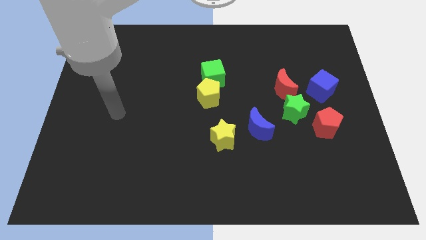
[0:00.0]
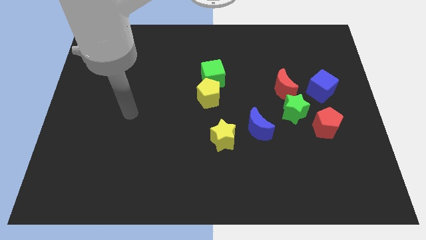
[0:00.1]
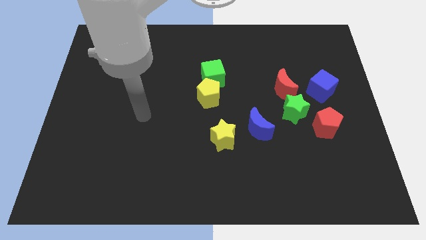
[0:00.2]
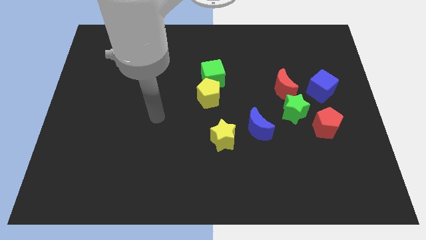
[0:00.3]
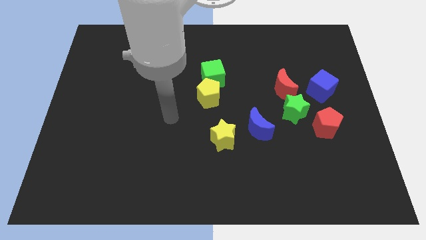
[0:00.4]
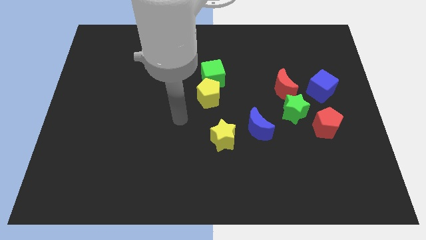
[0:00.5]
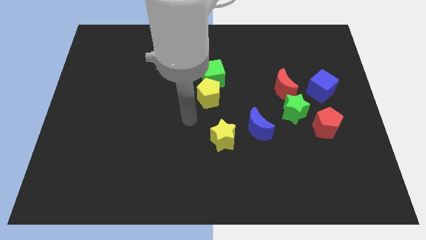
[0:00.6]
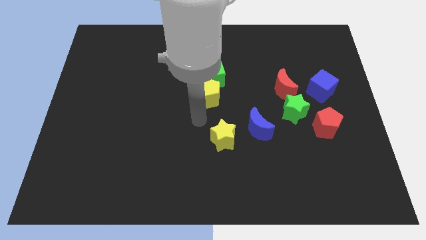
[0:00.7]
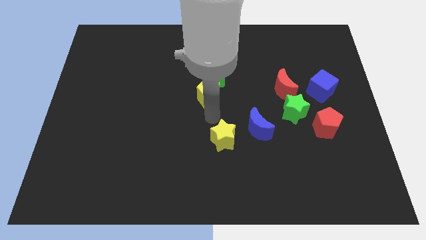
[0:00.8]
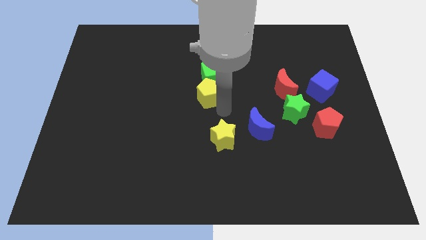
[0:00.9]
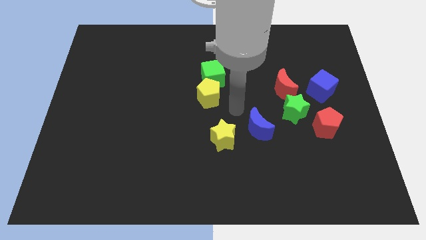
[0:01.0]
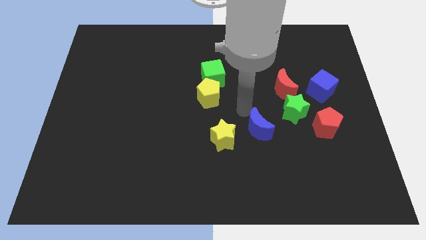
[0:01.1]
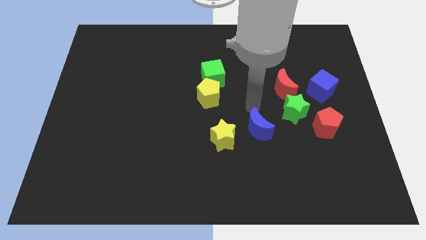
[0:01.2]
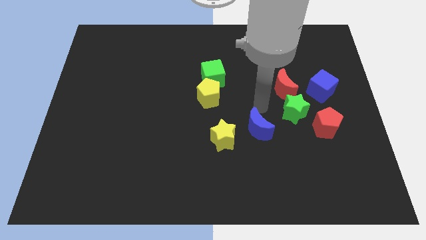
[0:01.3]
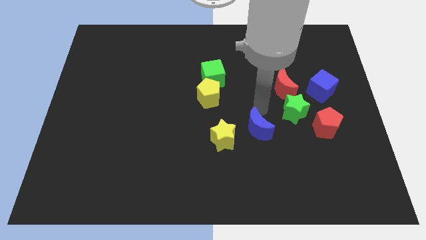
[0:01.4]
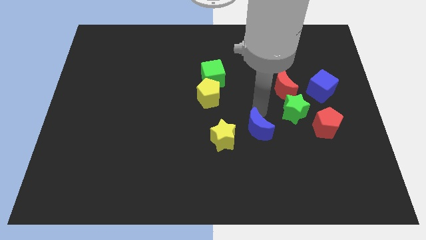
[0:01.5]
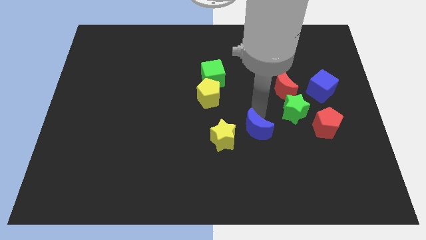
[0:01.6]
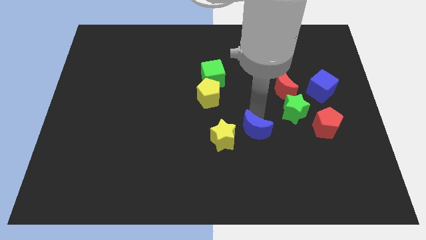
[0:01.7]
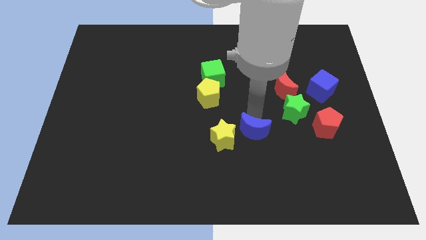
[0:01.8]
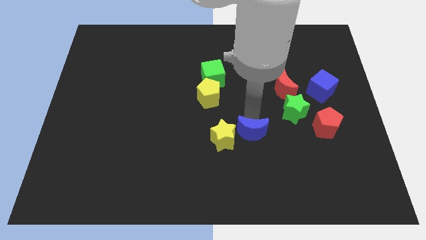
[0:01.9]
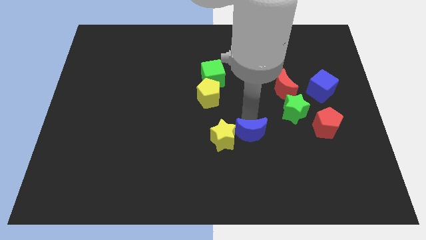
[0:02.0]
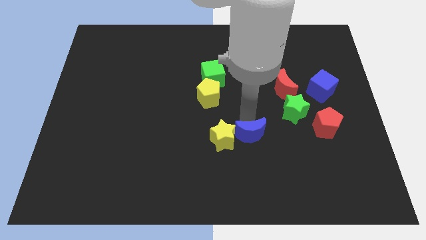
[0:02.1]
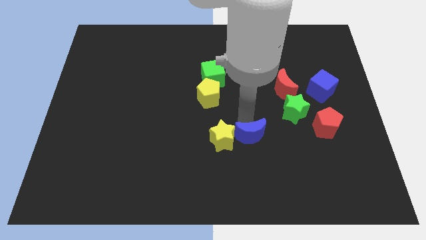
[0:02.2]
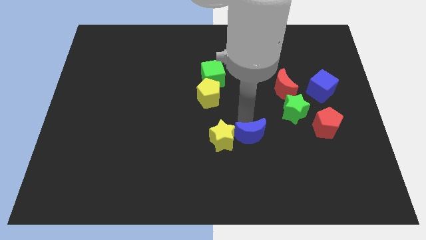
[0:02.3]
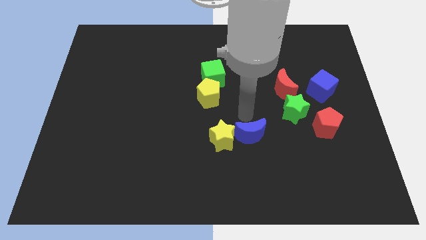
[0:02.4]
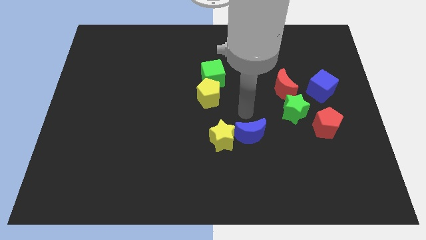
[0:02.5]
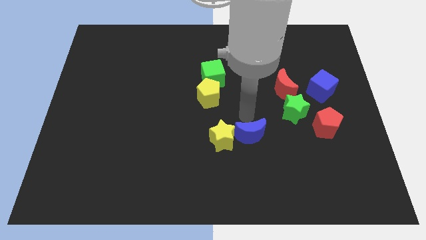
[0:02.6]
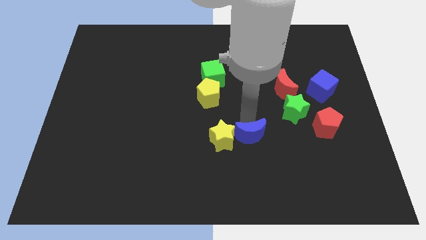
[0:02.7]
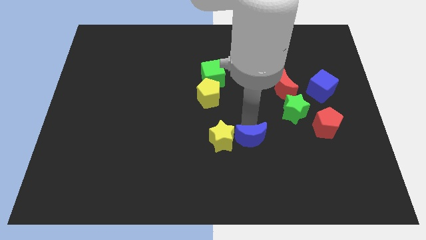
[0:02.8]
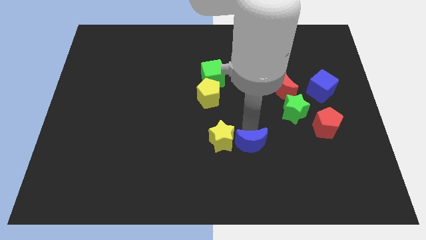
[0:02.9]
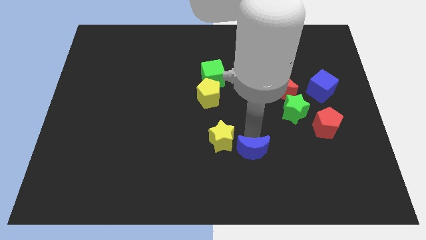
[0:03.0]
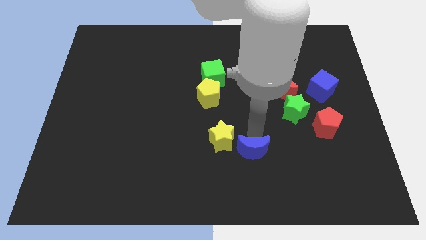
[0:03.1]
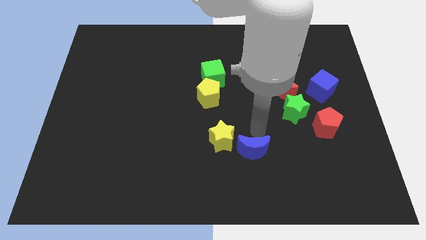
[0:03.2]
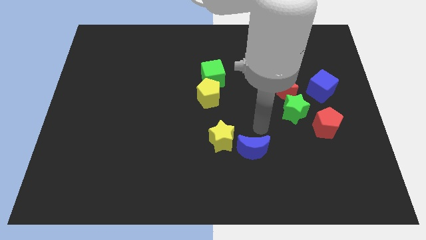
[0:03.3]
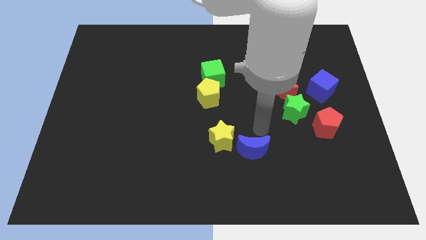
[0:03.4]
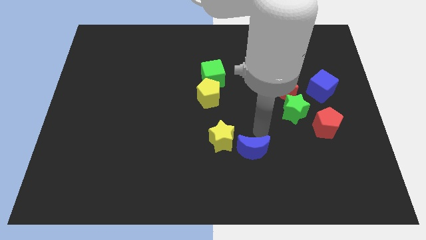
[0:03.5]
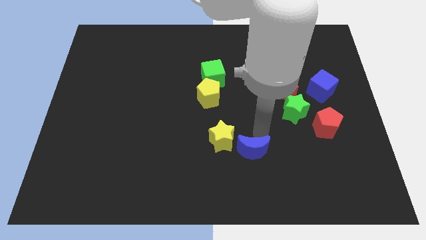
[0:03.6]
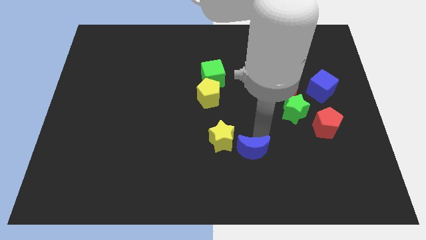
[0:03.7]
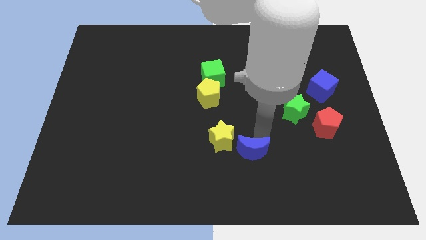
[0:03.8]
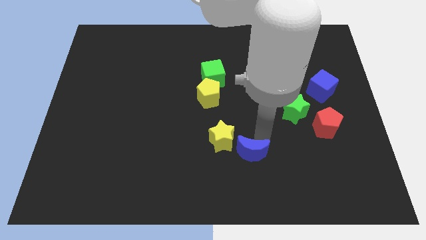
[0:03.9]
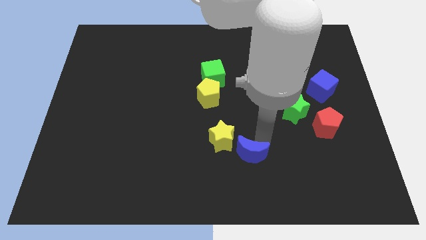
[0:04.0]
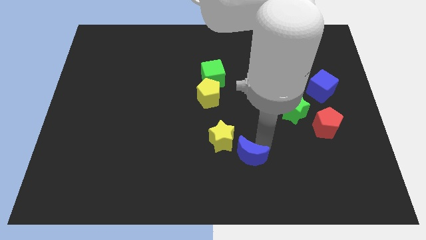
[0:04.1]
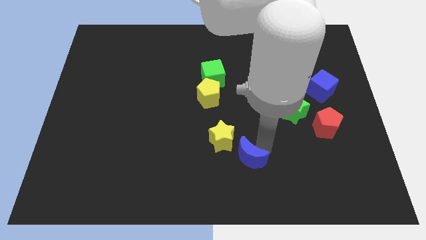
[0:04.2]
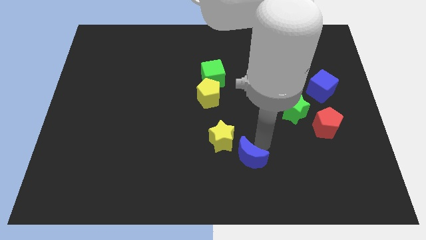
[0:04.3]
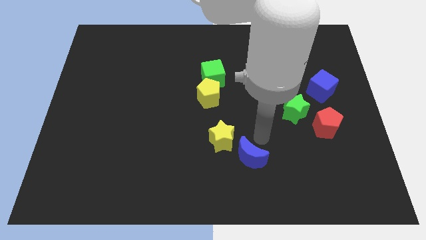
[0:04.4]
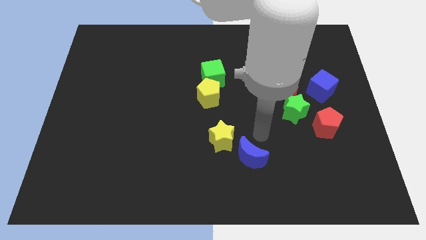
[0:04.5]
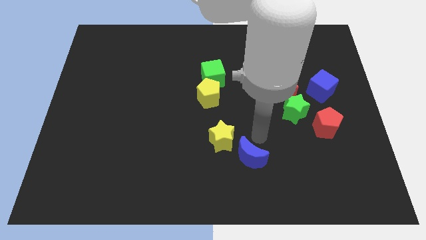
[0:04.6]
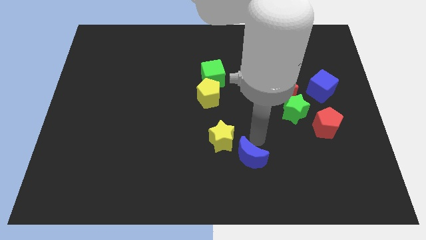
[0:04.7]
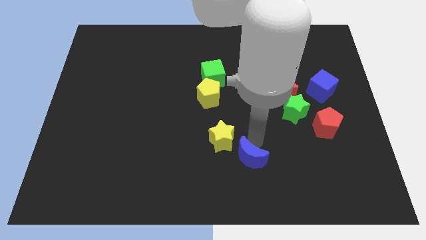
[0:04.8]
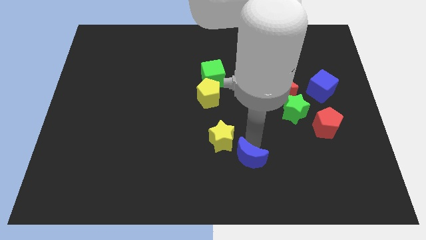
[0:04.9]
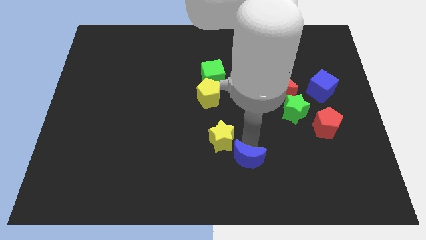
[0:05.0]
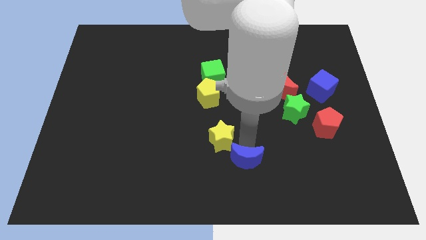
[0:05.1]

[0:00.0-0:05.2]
put the blue moon to the bottom side
